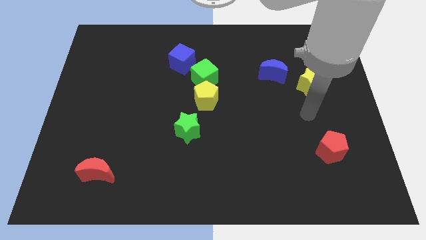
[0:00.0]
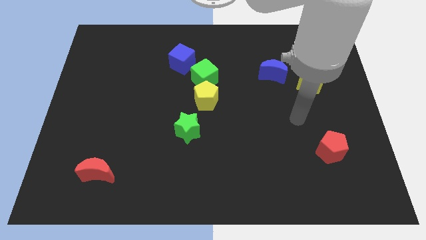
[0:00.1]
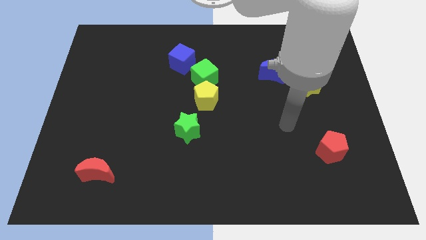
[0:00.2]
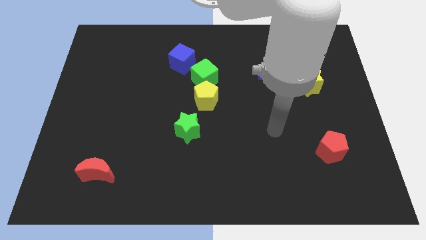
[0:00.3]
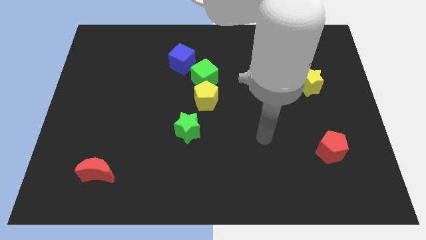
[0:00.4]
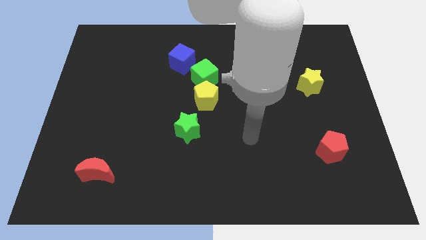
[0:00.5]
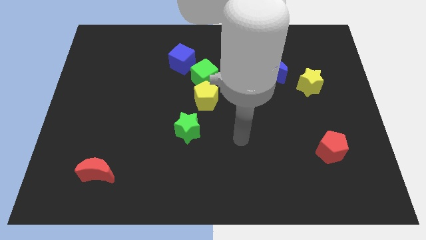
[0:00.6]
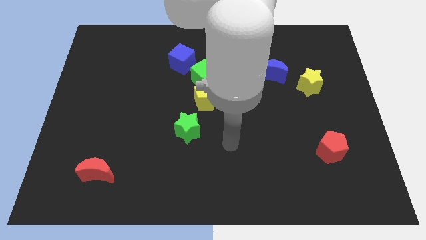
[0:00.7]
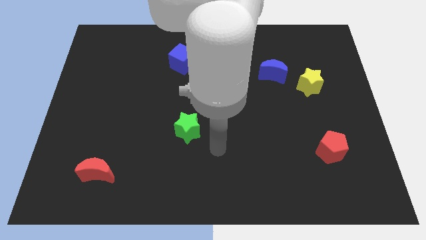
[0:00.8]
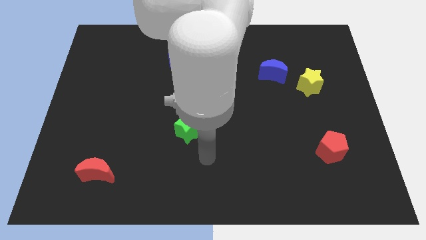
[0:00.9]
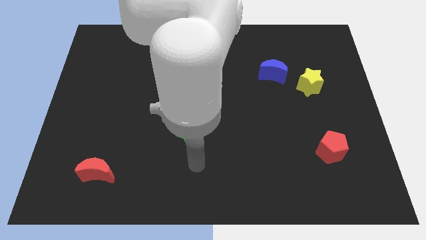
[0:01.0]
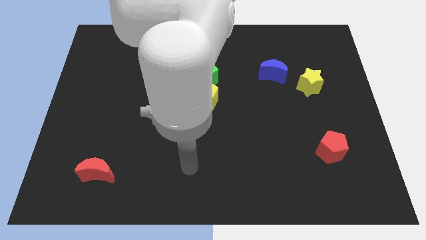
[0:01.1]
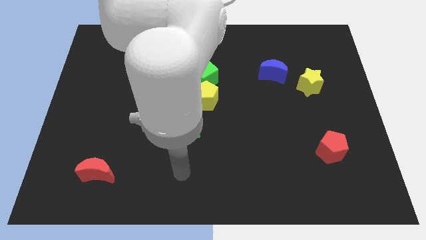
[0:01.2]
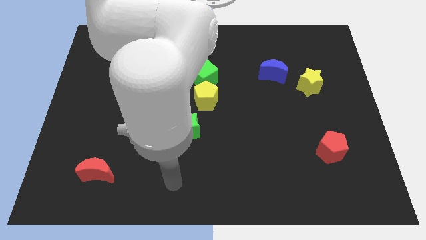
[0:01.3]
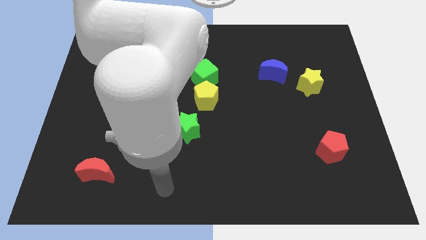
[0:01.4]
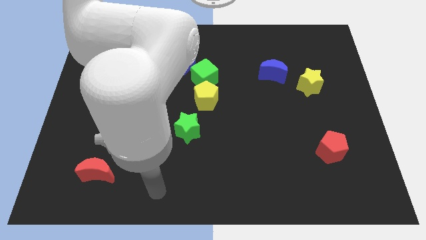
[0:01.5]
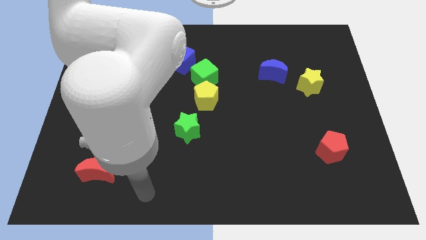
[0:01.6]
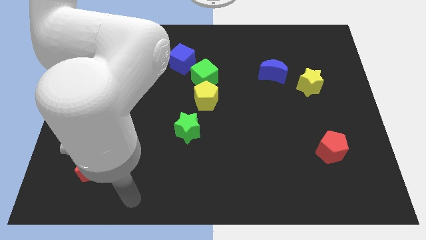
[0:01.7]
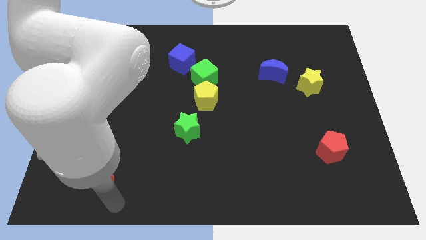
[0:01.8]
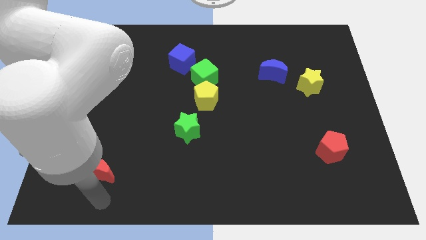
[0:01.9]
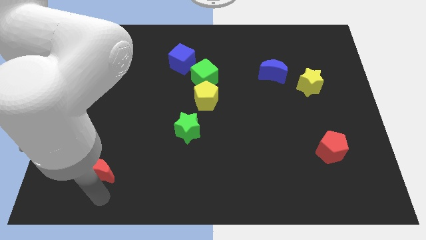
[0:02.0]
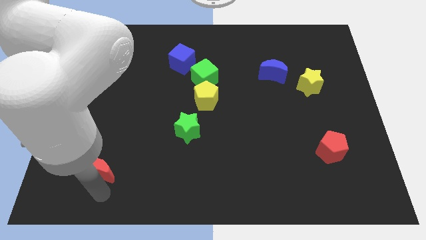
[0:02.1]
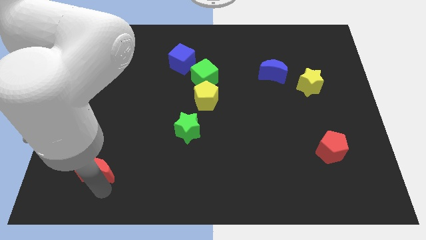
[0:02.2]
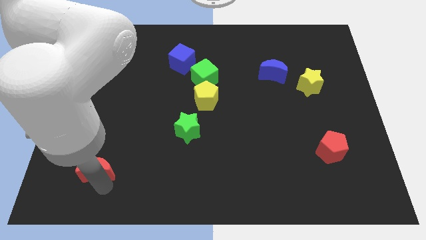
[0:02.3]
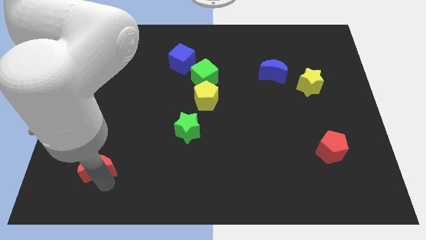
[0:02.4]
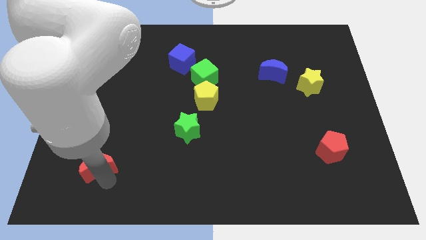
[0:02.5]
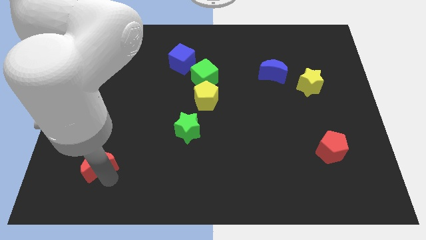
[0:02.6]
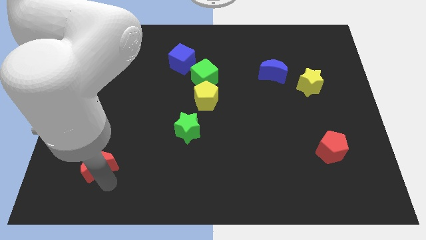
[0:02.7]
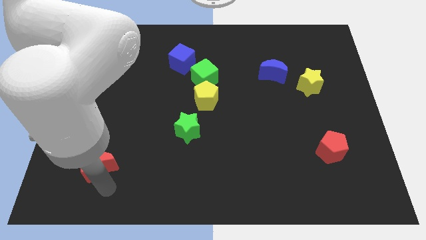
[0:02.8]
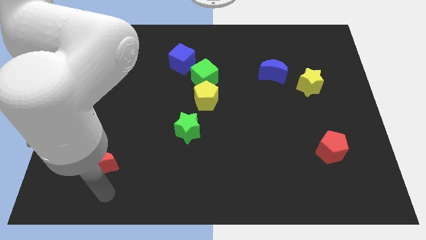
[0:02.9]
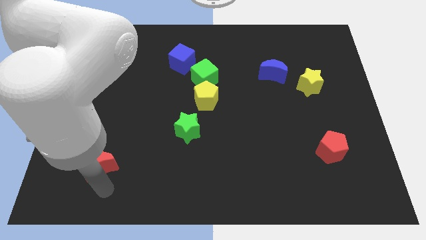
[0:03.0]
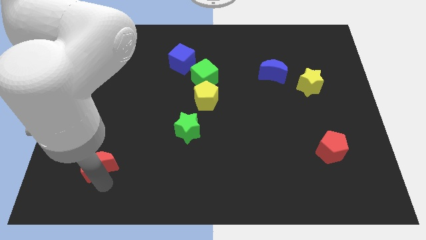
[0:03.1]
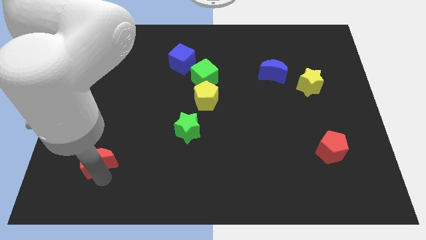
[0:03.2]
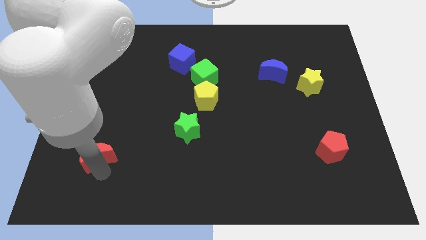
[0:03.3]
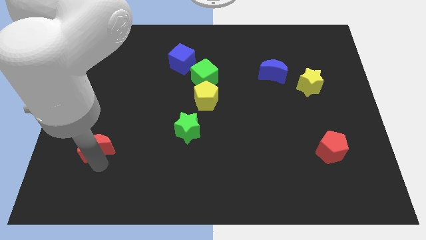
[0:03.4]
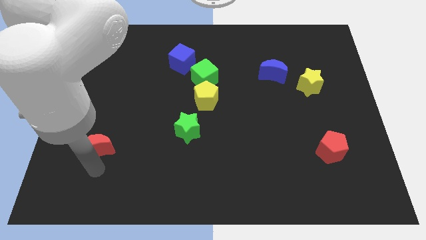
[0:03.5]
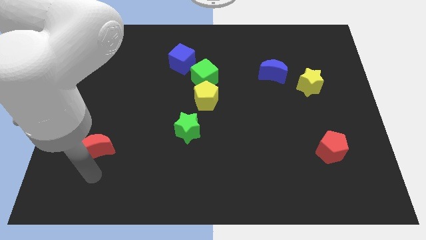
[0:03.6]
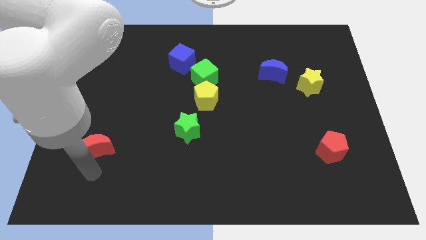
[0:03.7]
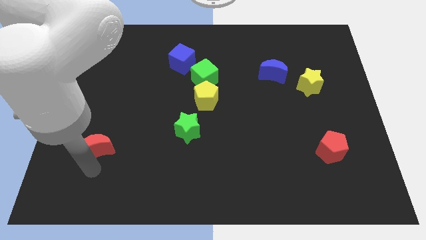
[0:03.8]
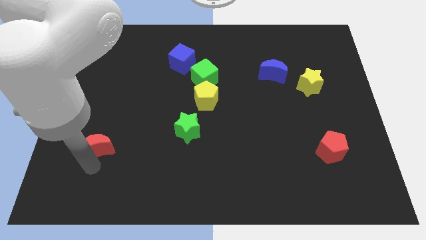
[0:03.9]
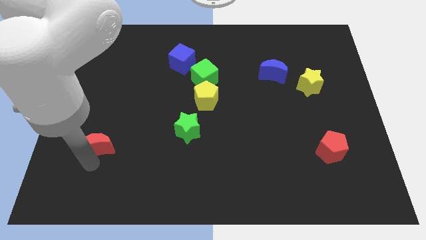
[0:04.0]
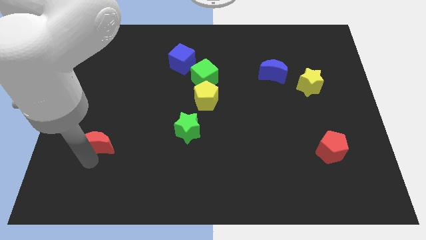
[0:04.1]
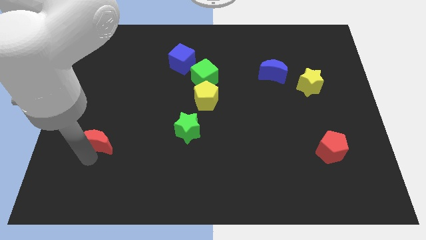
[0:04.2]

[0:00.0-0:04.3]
move the red moon upwards slightly

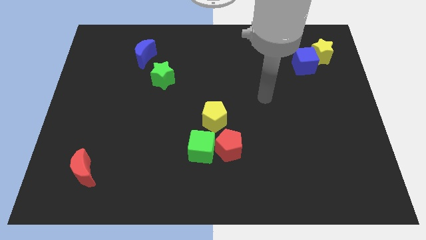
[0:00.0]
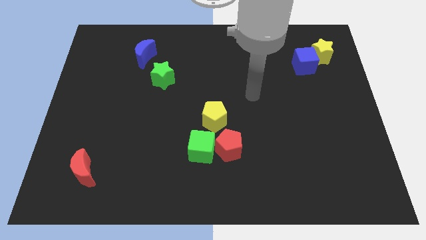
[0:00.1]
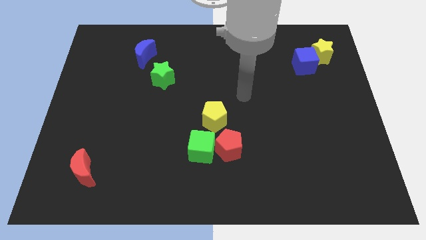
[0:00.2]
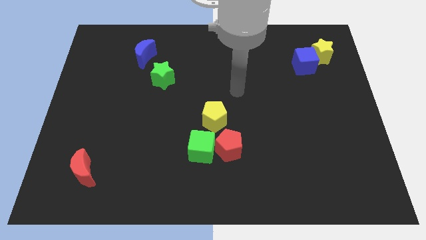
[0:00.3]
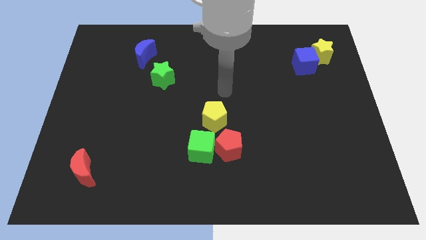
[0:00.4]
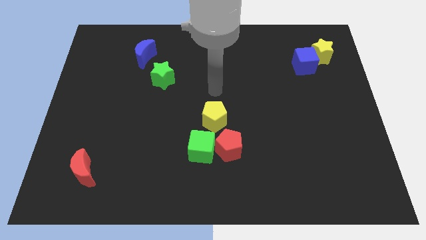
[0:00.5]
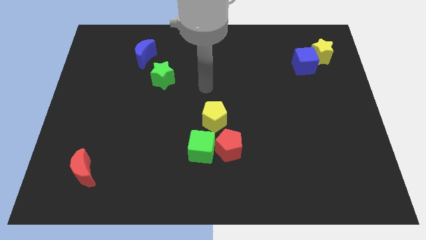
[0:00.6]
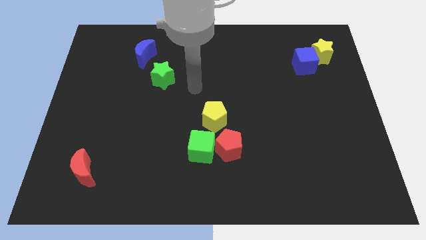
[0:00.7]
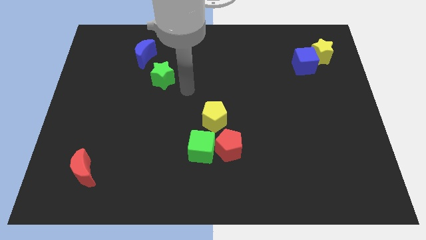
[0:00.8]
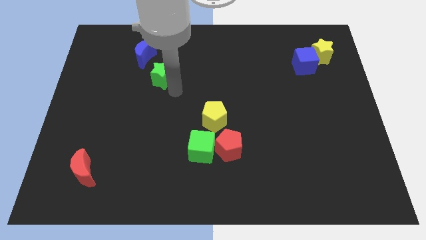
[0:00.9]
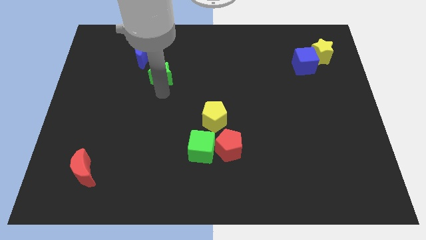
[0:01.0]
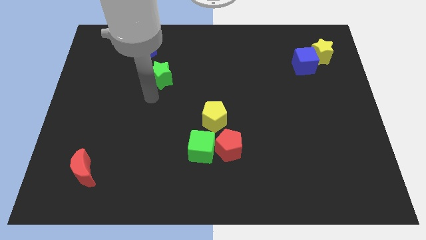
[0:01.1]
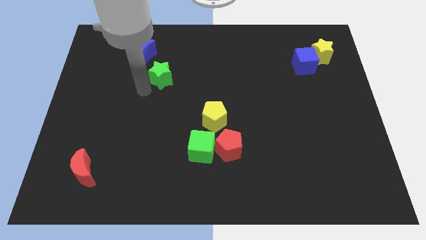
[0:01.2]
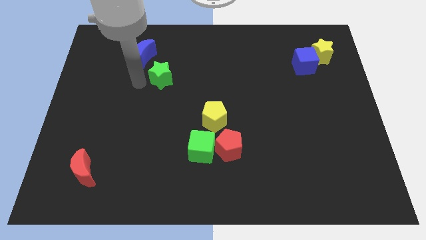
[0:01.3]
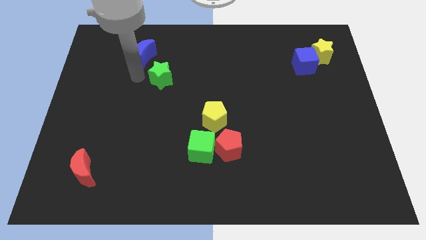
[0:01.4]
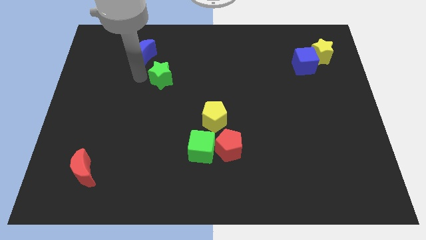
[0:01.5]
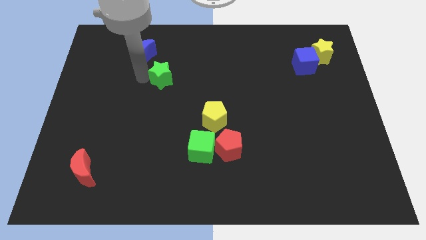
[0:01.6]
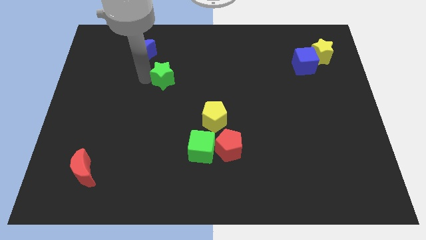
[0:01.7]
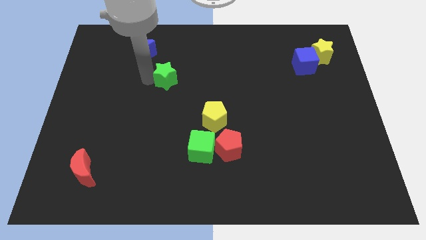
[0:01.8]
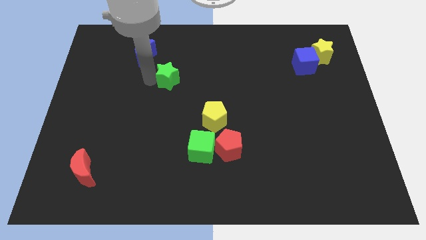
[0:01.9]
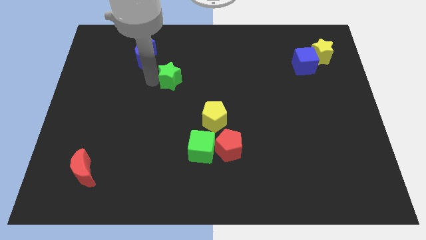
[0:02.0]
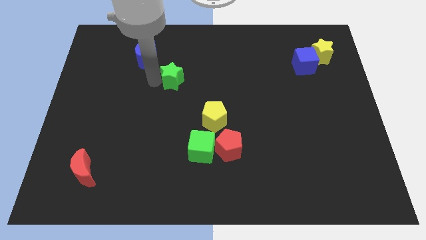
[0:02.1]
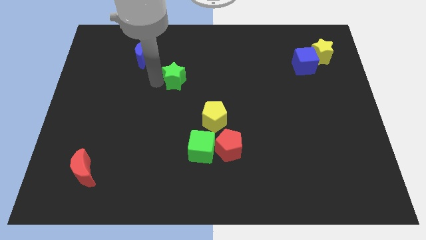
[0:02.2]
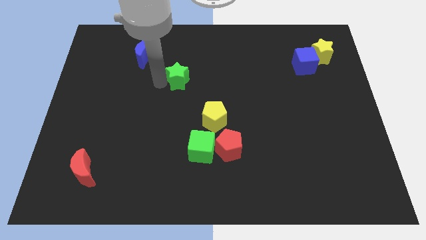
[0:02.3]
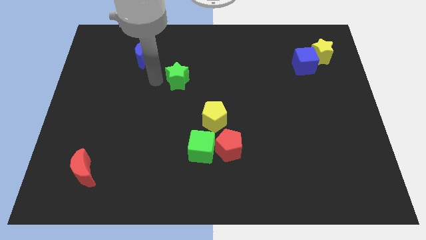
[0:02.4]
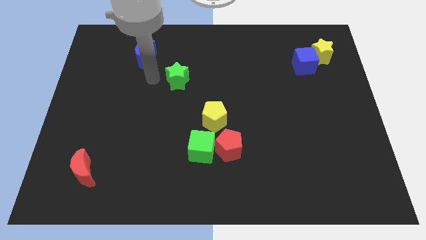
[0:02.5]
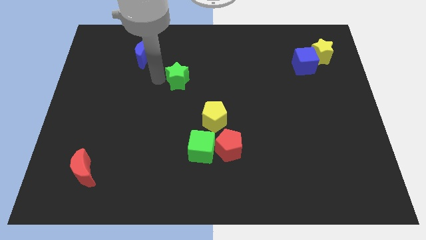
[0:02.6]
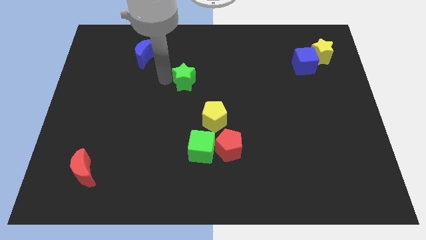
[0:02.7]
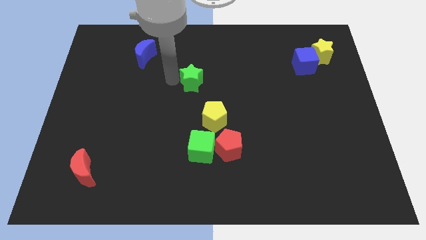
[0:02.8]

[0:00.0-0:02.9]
move the green star somewhat to the right

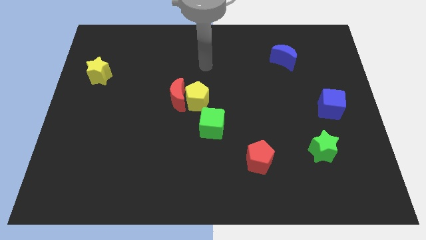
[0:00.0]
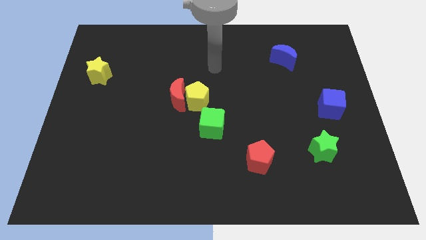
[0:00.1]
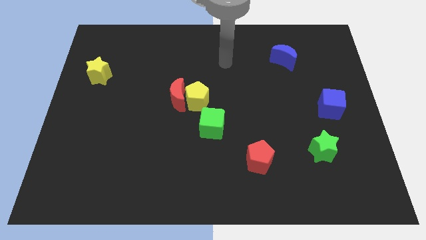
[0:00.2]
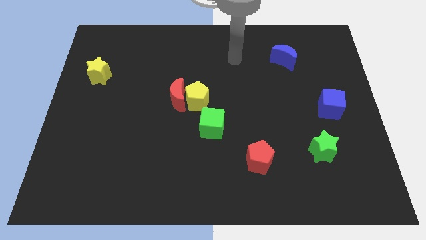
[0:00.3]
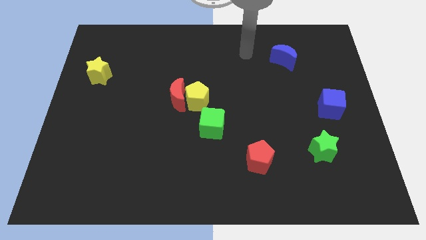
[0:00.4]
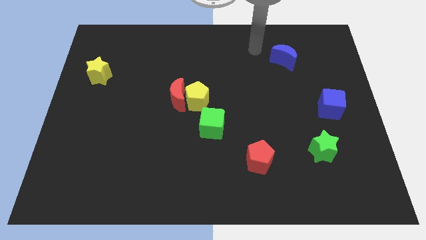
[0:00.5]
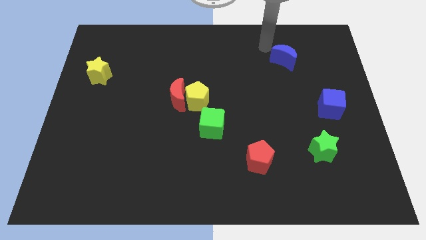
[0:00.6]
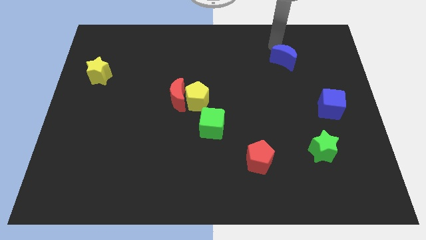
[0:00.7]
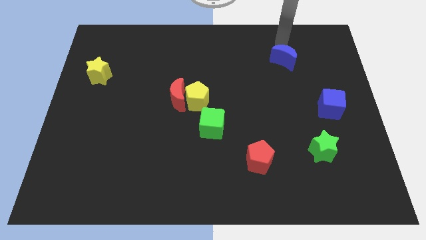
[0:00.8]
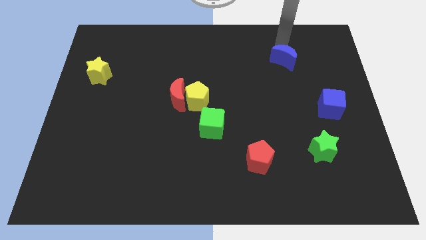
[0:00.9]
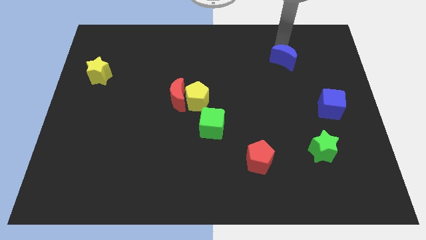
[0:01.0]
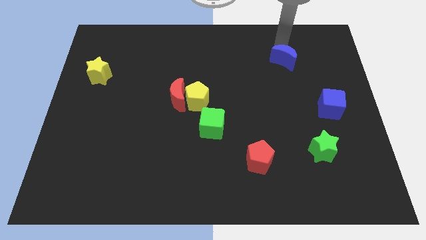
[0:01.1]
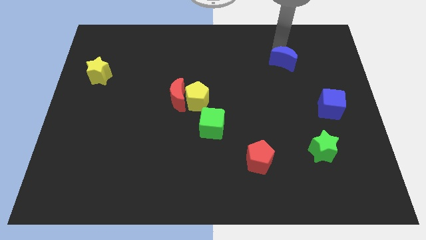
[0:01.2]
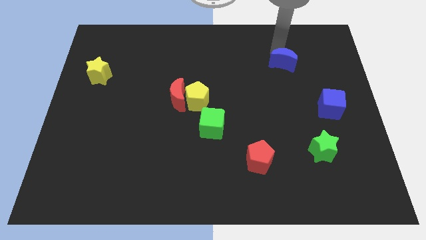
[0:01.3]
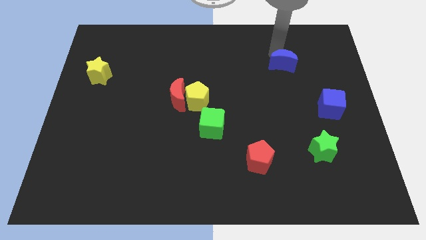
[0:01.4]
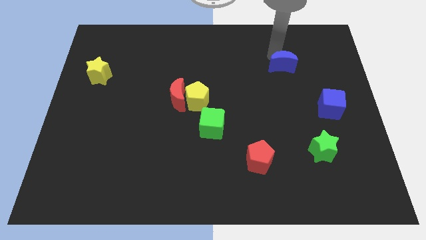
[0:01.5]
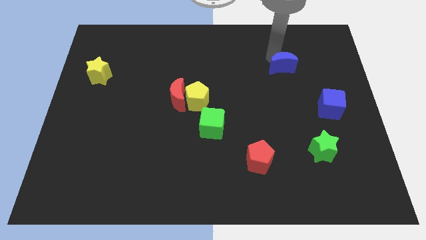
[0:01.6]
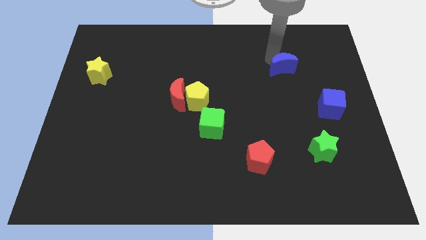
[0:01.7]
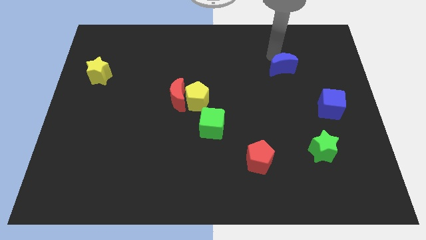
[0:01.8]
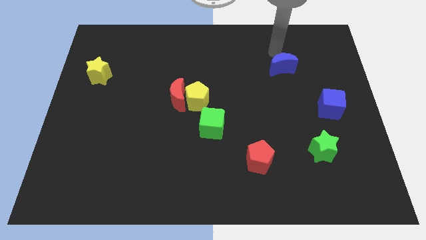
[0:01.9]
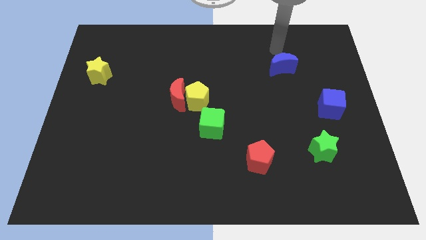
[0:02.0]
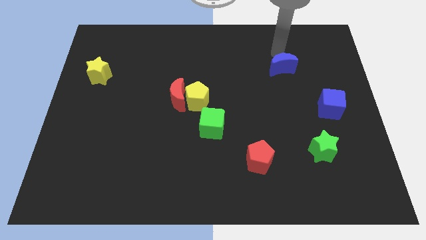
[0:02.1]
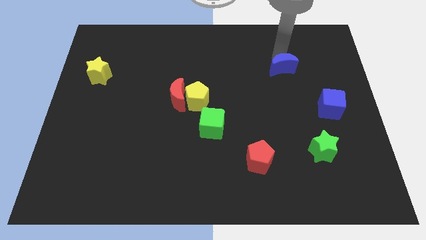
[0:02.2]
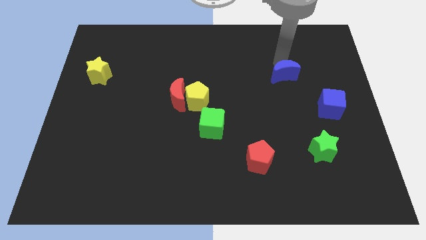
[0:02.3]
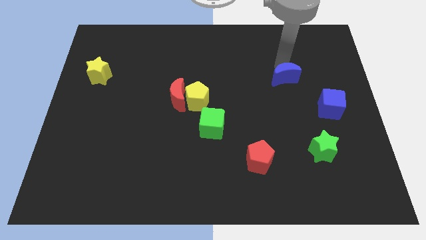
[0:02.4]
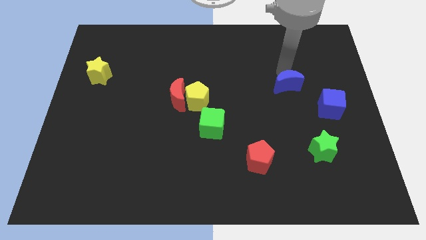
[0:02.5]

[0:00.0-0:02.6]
slightly slide the blue moon downwards
